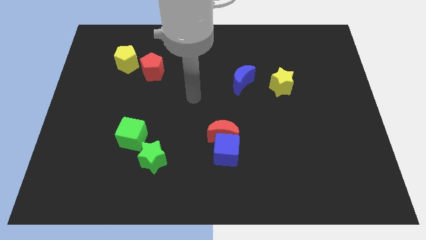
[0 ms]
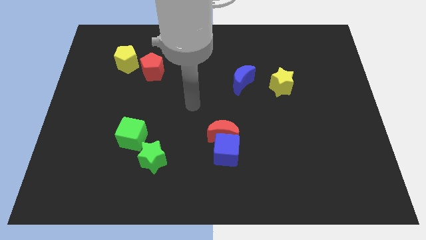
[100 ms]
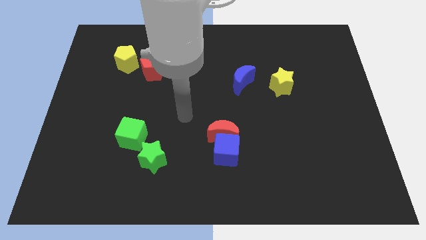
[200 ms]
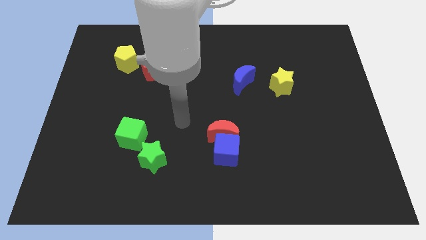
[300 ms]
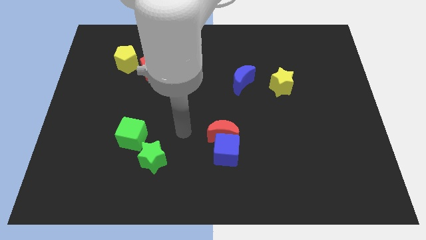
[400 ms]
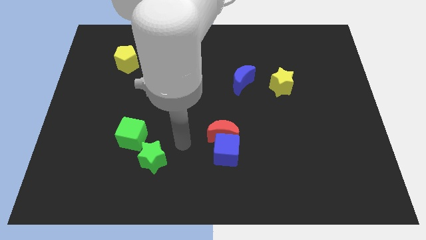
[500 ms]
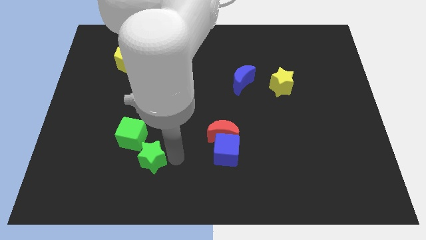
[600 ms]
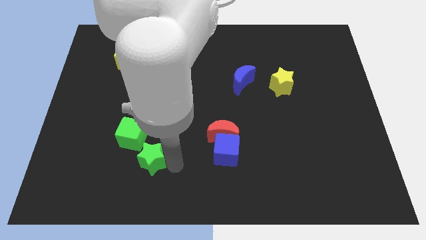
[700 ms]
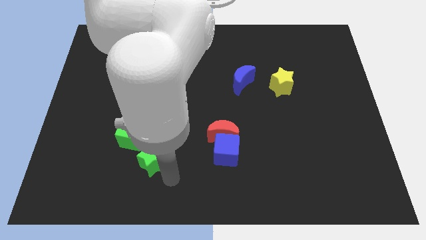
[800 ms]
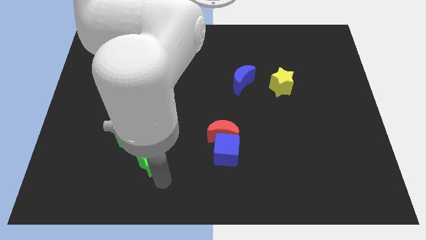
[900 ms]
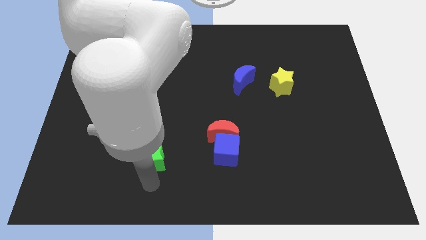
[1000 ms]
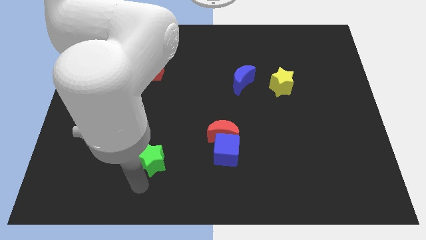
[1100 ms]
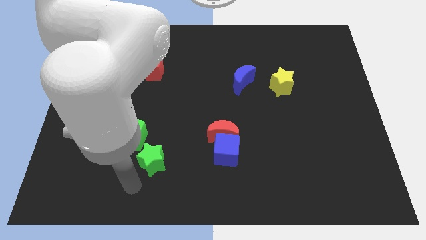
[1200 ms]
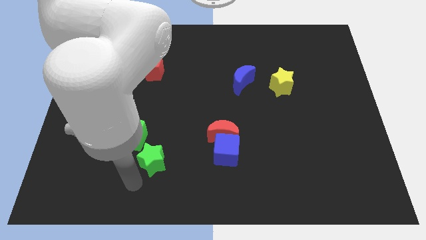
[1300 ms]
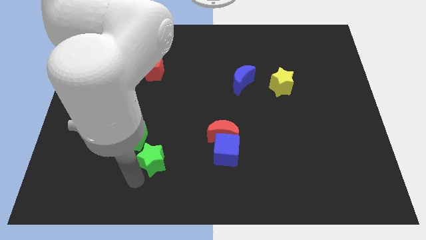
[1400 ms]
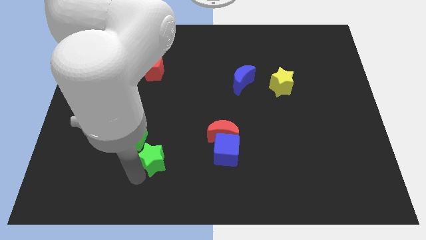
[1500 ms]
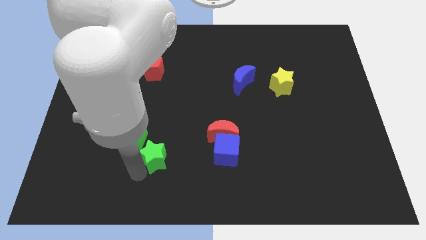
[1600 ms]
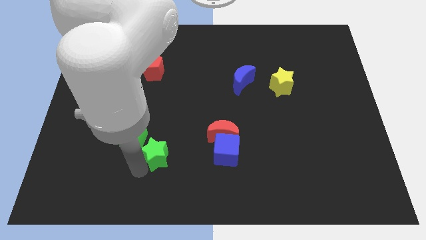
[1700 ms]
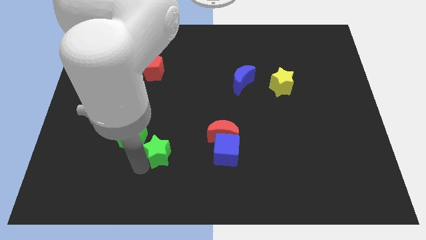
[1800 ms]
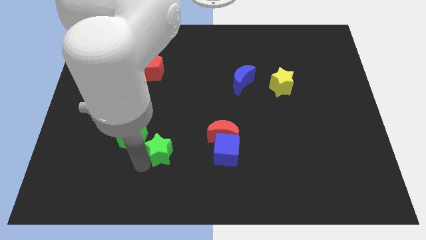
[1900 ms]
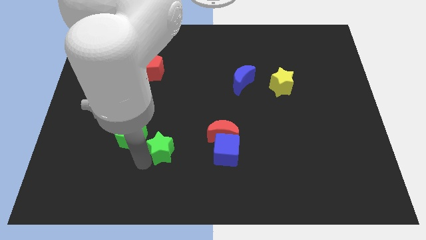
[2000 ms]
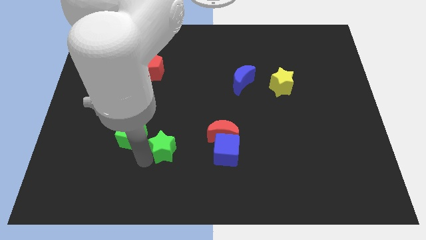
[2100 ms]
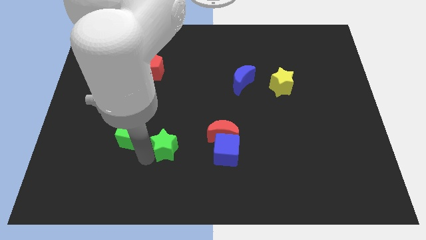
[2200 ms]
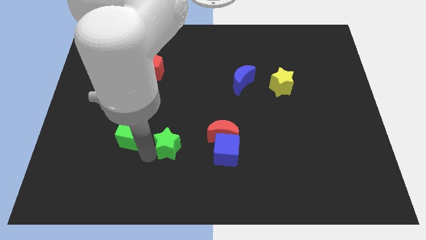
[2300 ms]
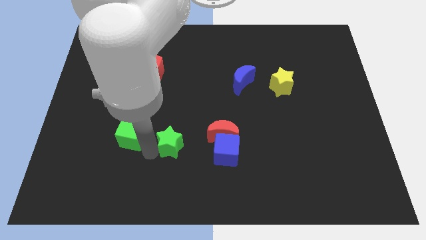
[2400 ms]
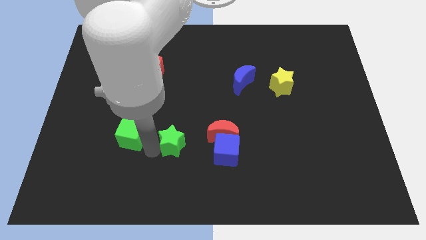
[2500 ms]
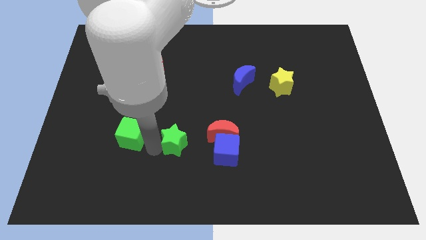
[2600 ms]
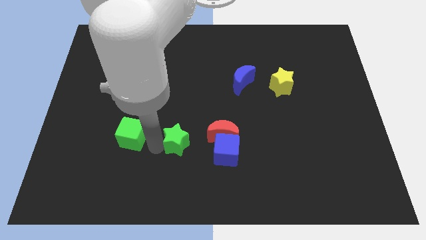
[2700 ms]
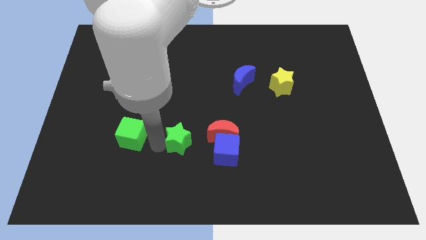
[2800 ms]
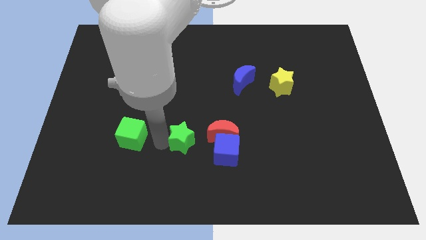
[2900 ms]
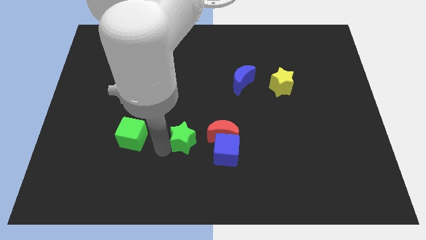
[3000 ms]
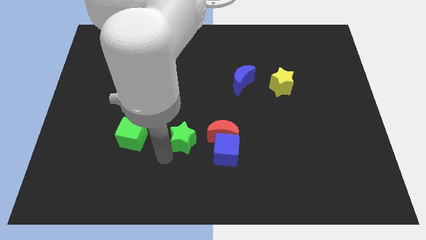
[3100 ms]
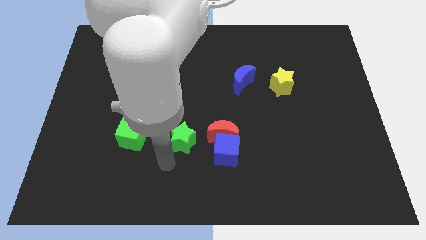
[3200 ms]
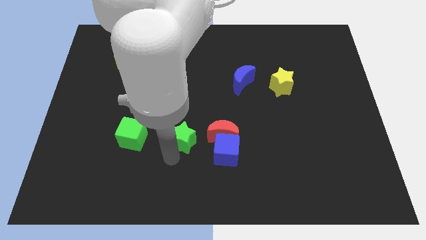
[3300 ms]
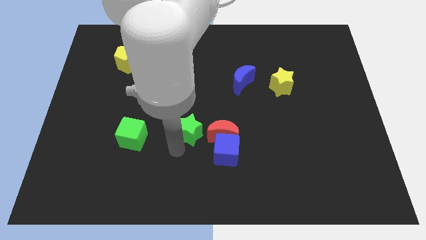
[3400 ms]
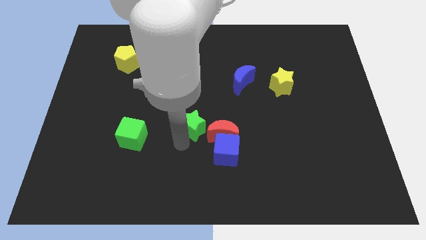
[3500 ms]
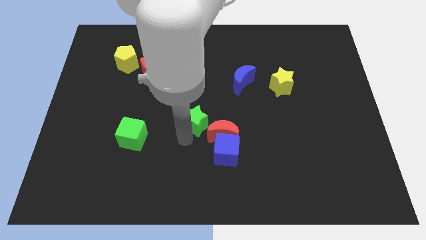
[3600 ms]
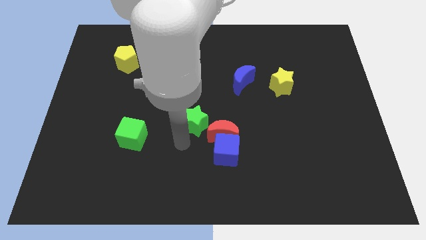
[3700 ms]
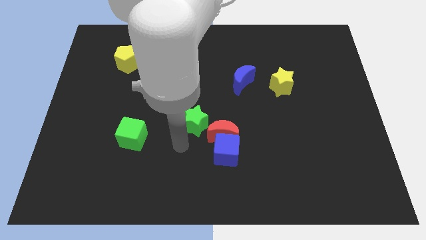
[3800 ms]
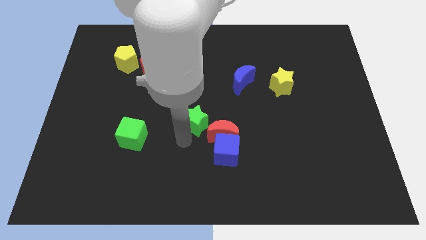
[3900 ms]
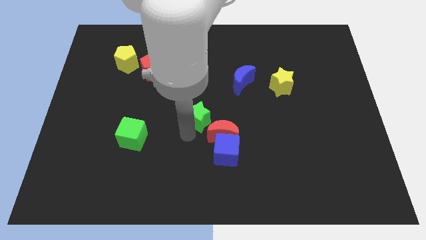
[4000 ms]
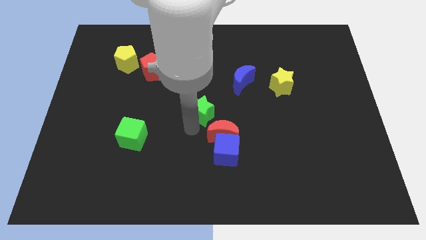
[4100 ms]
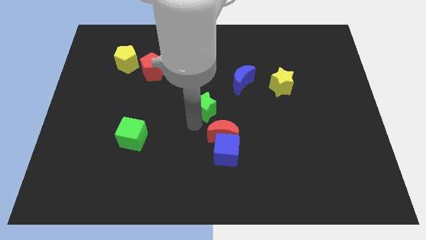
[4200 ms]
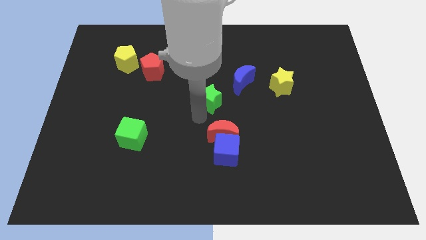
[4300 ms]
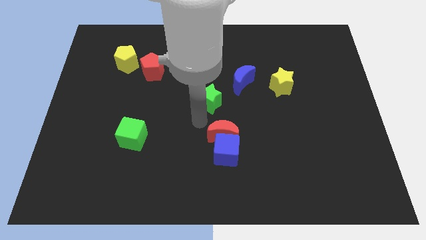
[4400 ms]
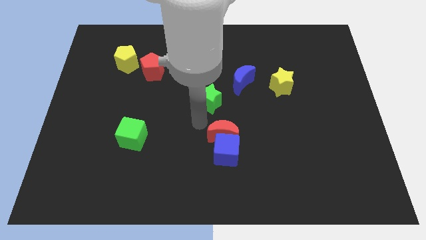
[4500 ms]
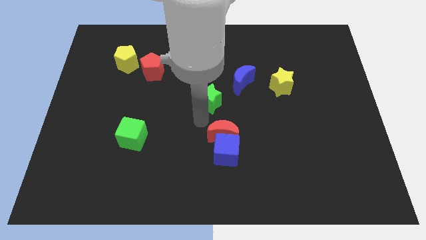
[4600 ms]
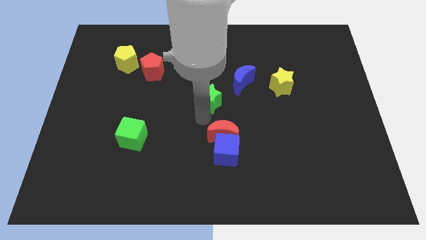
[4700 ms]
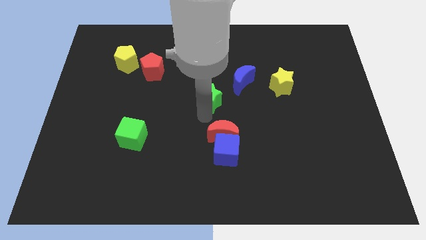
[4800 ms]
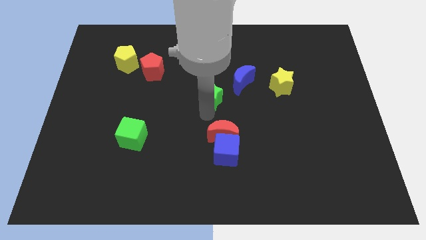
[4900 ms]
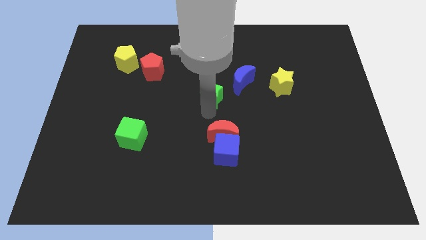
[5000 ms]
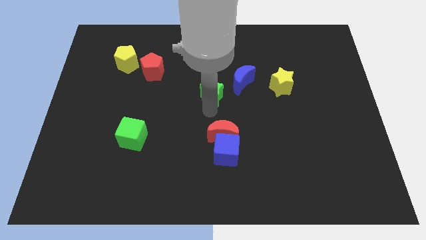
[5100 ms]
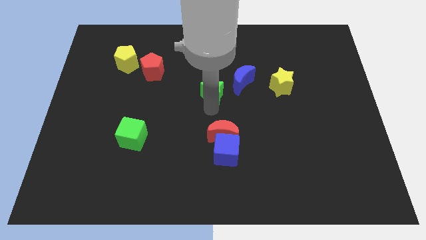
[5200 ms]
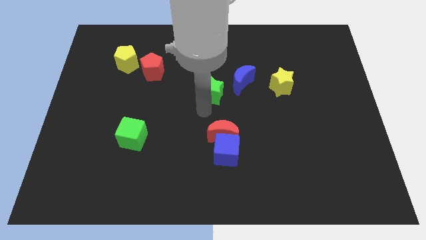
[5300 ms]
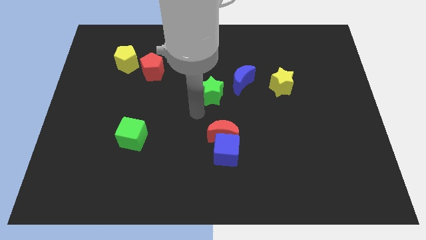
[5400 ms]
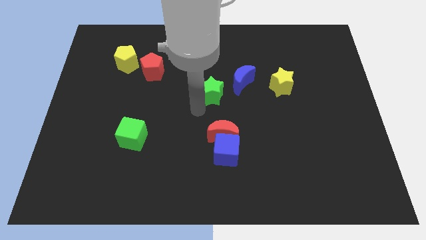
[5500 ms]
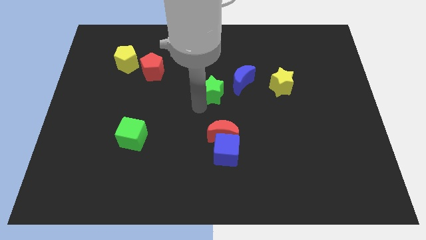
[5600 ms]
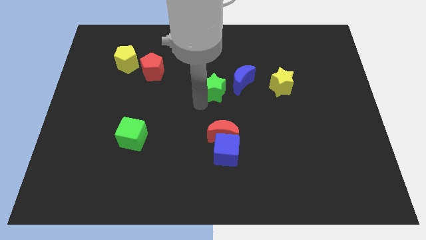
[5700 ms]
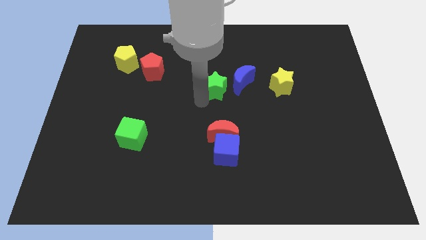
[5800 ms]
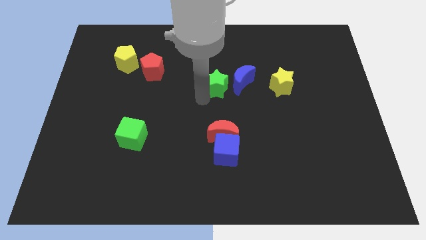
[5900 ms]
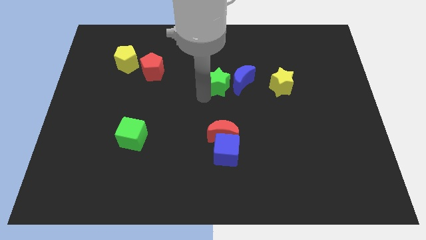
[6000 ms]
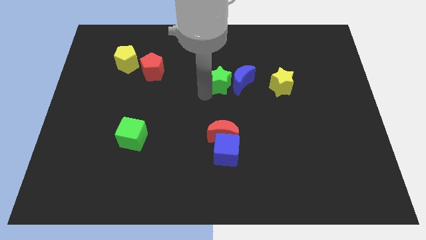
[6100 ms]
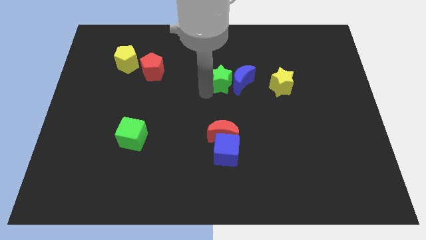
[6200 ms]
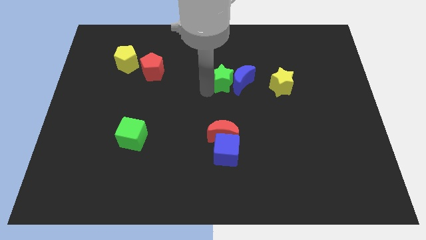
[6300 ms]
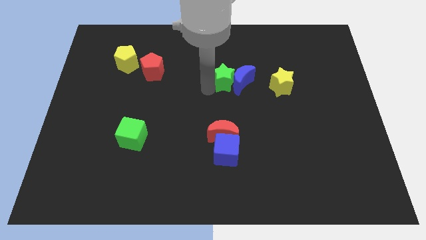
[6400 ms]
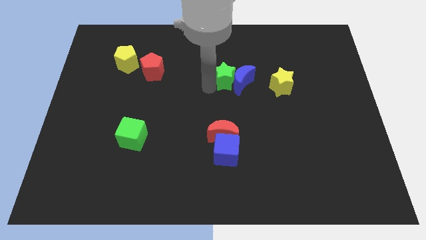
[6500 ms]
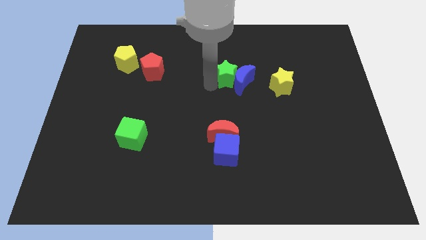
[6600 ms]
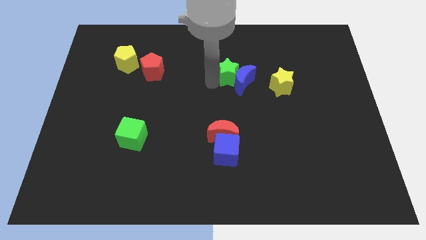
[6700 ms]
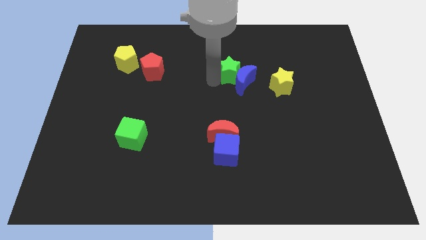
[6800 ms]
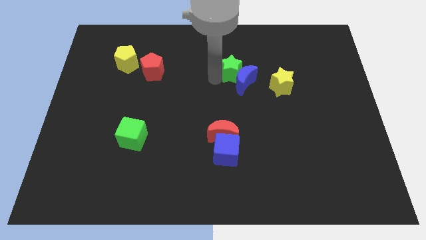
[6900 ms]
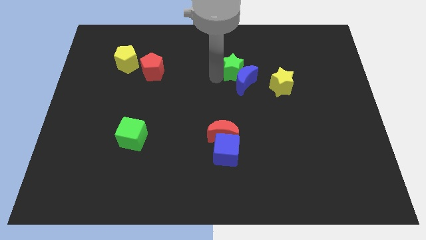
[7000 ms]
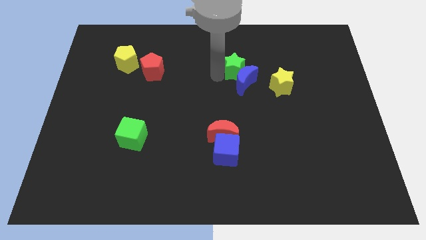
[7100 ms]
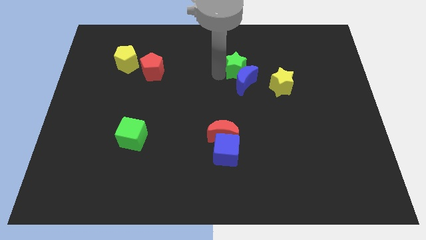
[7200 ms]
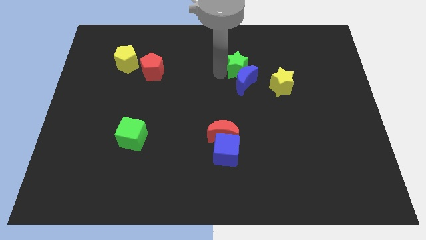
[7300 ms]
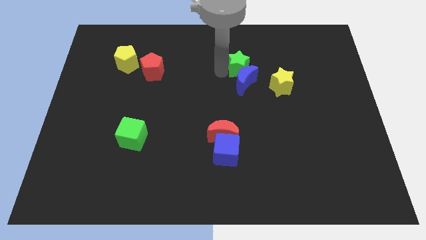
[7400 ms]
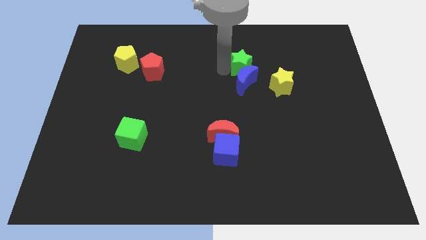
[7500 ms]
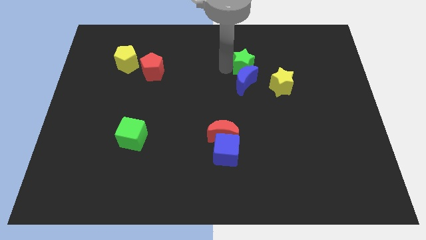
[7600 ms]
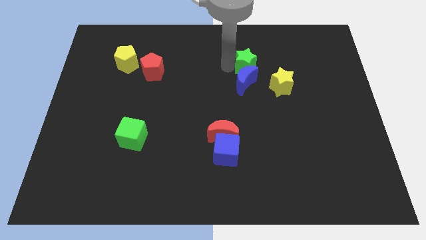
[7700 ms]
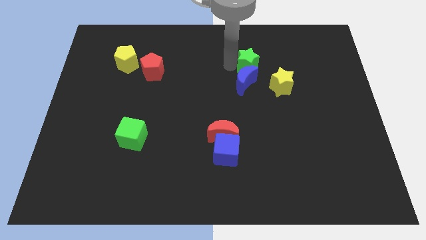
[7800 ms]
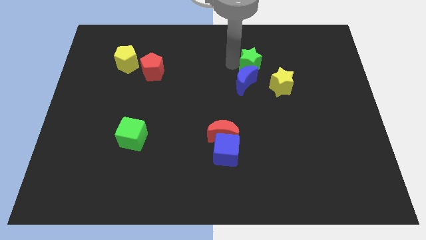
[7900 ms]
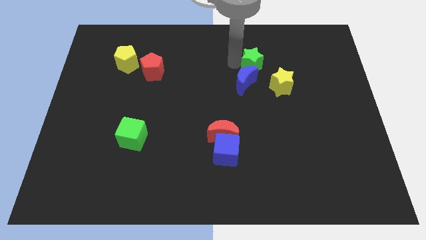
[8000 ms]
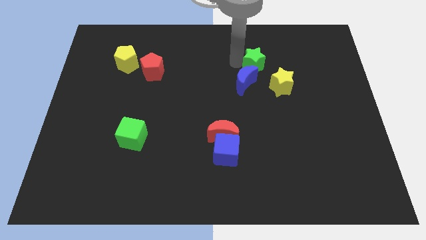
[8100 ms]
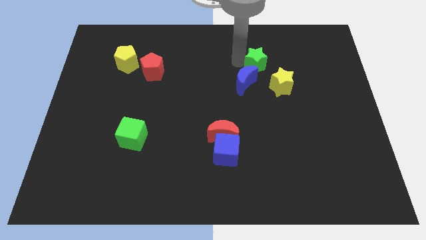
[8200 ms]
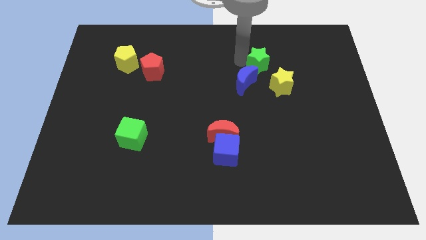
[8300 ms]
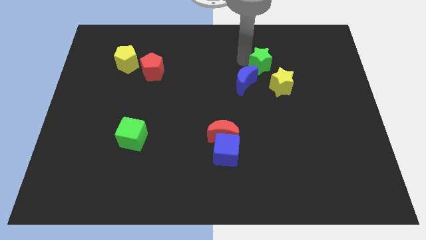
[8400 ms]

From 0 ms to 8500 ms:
put the green star above the yellow star
